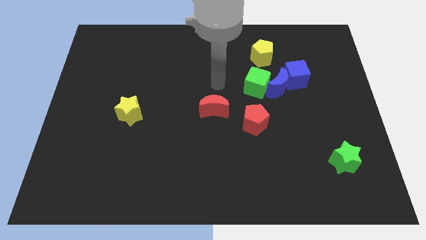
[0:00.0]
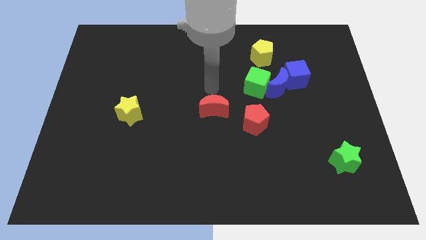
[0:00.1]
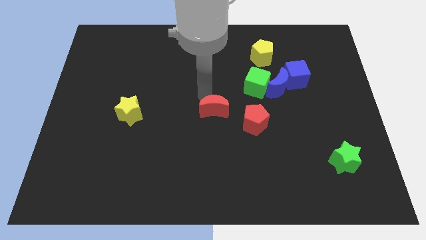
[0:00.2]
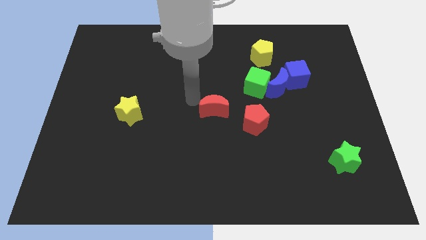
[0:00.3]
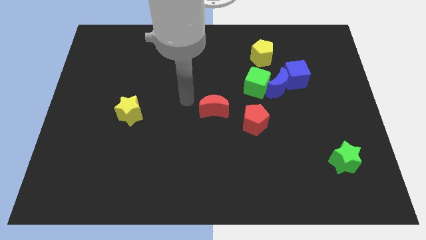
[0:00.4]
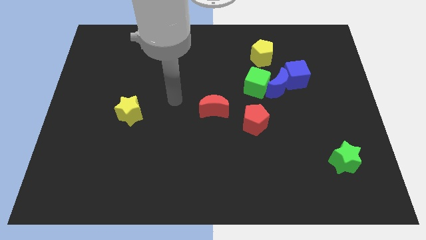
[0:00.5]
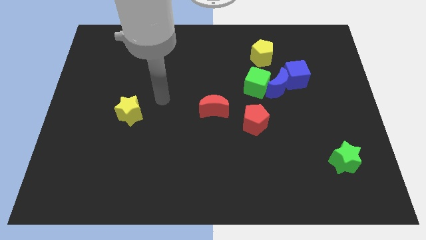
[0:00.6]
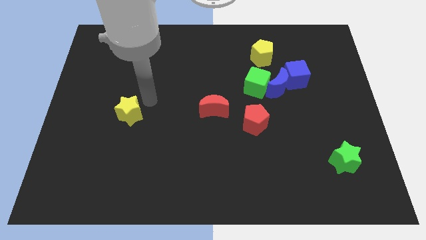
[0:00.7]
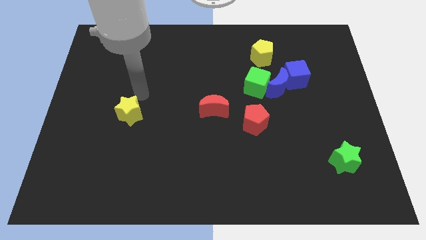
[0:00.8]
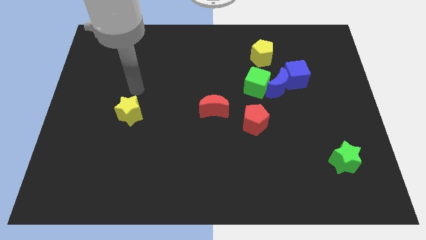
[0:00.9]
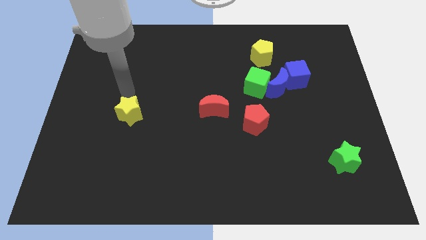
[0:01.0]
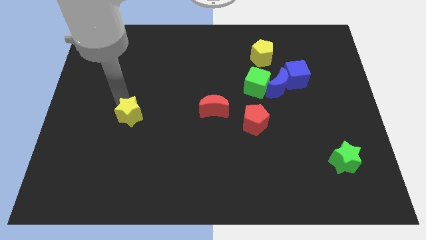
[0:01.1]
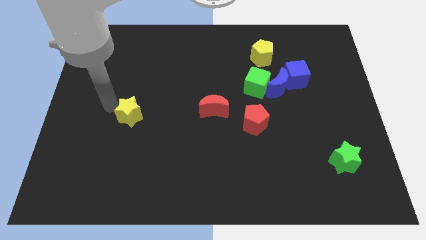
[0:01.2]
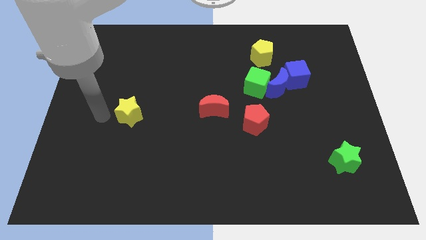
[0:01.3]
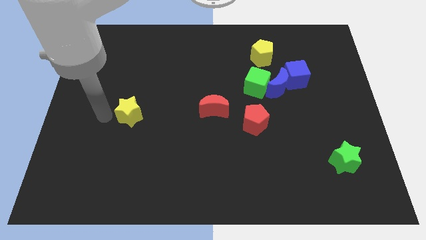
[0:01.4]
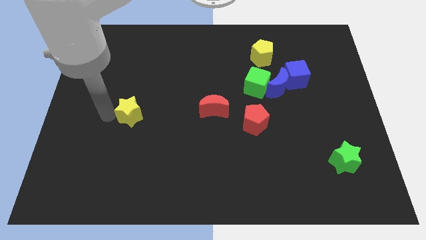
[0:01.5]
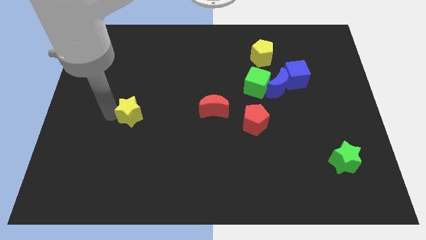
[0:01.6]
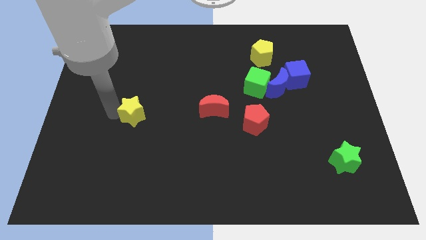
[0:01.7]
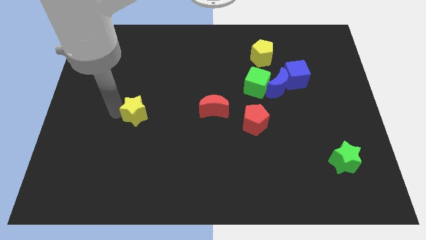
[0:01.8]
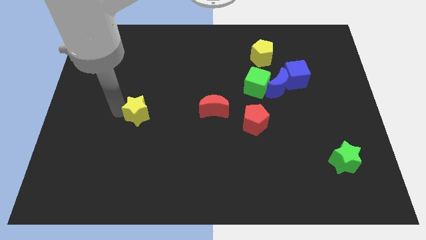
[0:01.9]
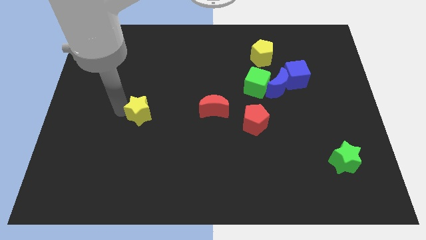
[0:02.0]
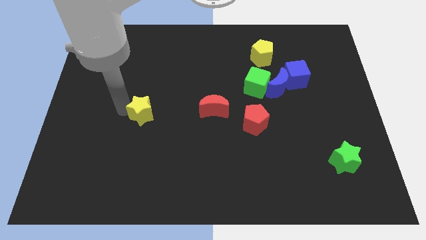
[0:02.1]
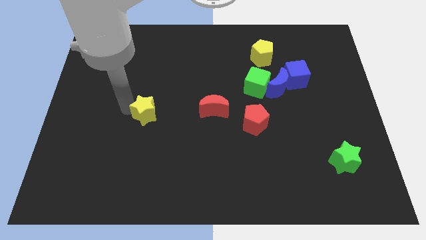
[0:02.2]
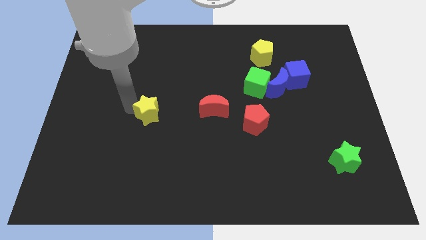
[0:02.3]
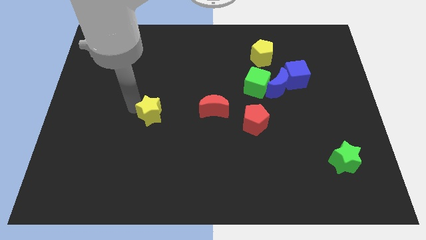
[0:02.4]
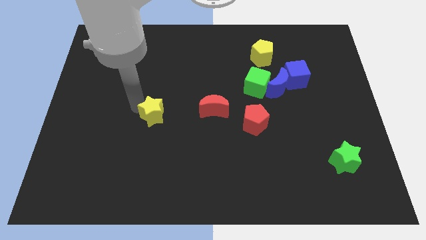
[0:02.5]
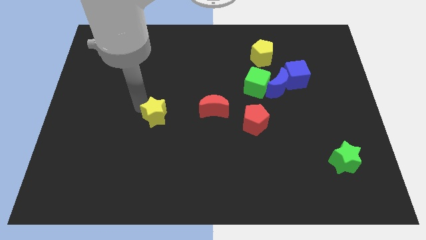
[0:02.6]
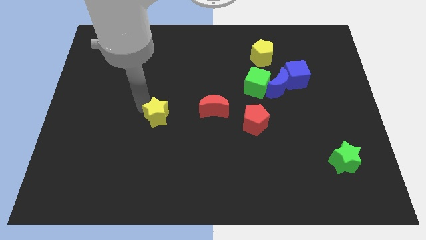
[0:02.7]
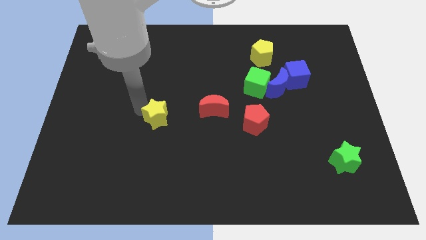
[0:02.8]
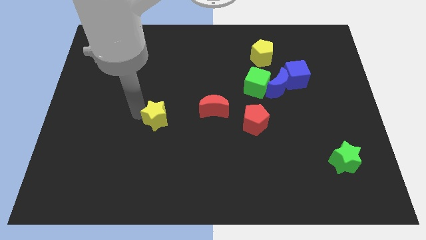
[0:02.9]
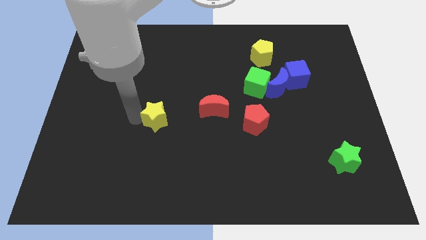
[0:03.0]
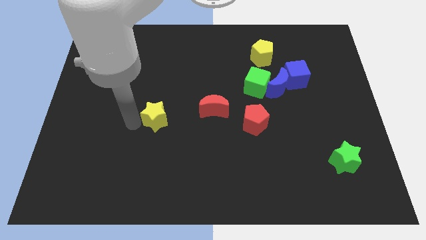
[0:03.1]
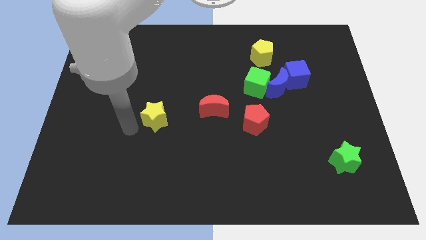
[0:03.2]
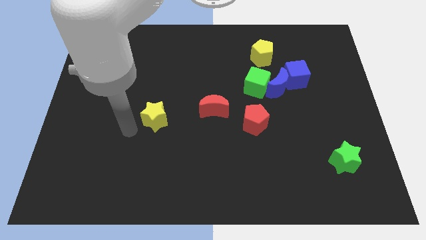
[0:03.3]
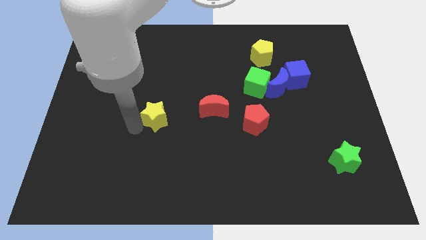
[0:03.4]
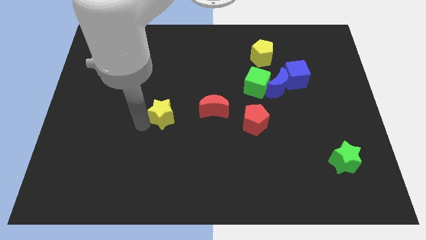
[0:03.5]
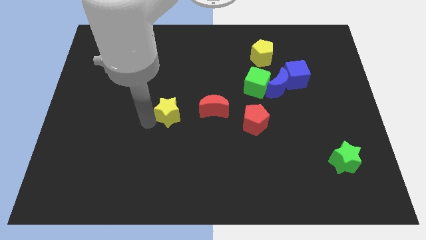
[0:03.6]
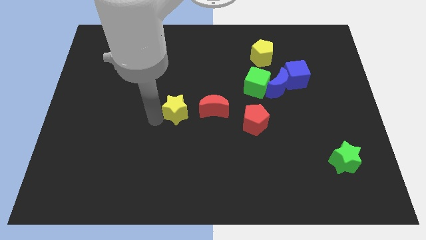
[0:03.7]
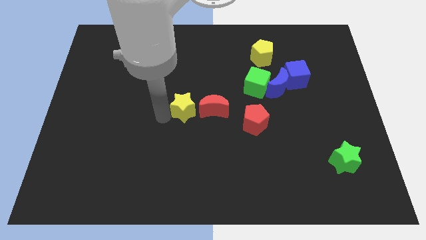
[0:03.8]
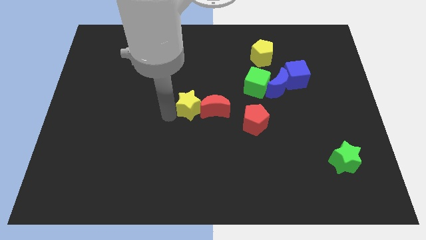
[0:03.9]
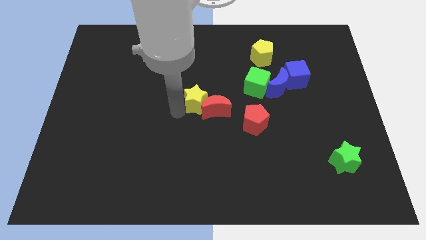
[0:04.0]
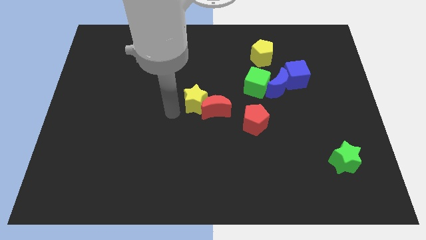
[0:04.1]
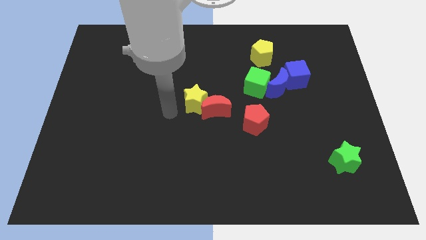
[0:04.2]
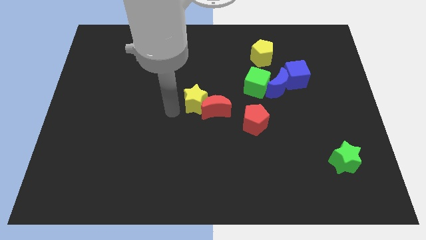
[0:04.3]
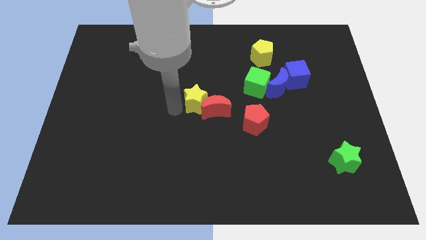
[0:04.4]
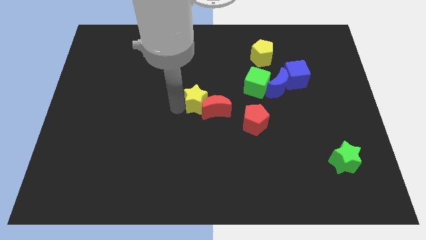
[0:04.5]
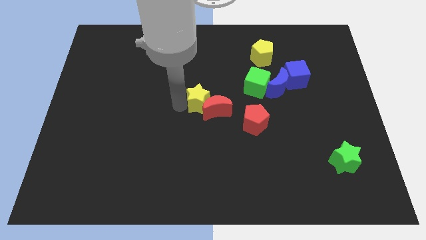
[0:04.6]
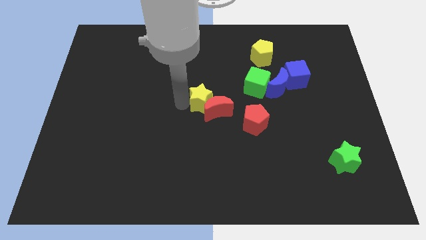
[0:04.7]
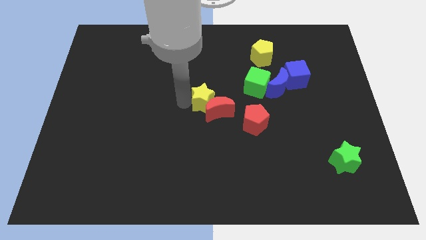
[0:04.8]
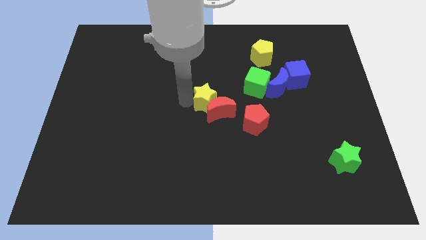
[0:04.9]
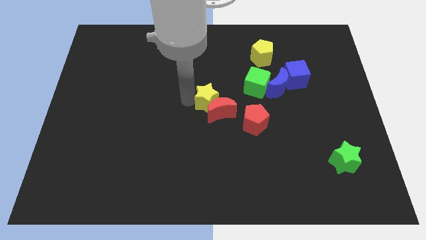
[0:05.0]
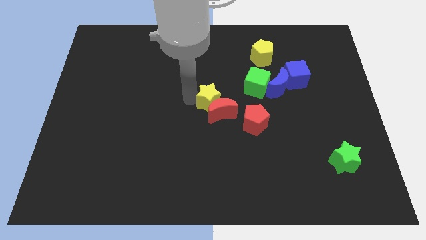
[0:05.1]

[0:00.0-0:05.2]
put the yellow star to the top left side of the red pentagon

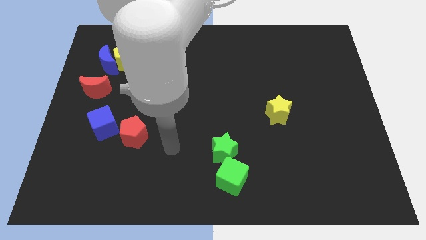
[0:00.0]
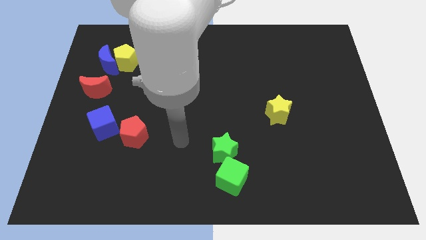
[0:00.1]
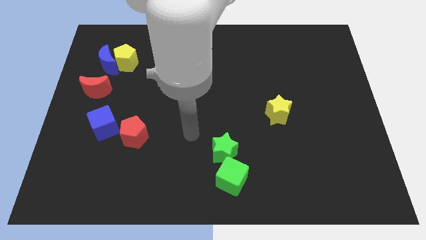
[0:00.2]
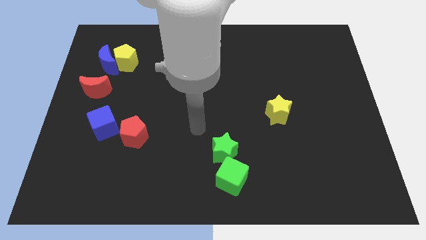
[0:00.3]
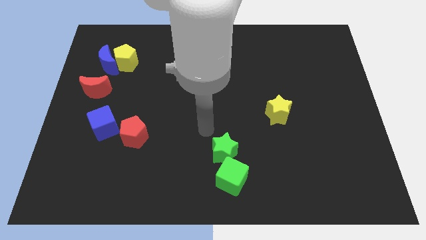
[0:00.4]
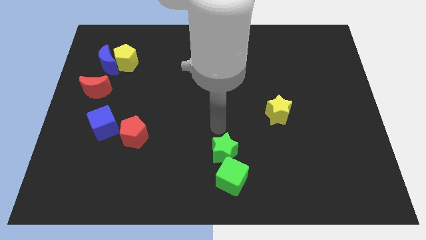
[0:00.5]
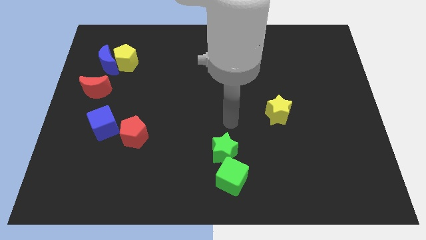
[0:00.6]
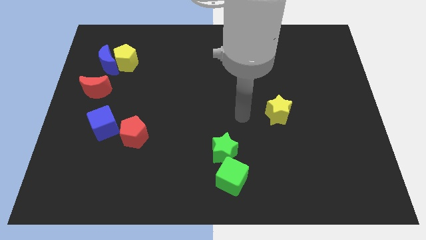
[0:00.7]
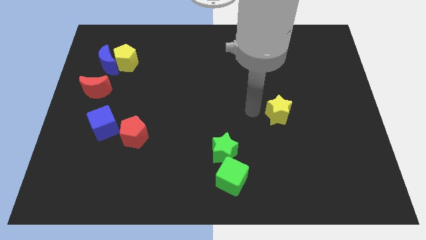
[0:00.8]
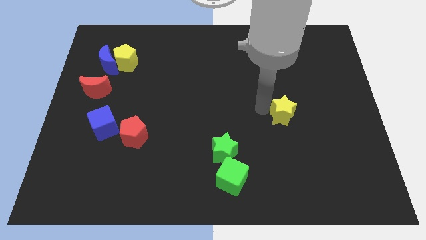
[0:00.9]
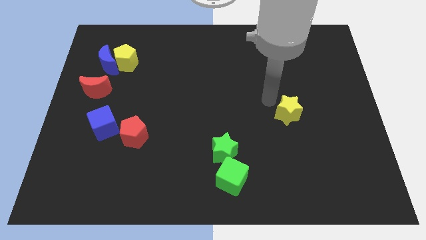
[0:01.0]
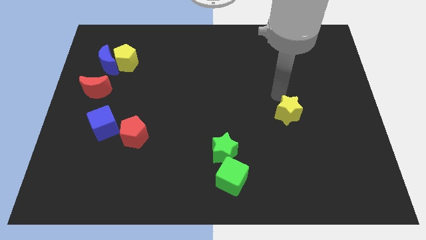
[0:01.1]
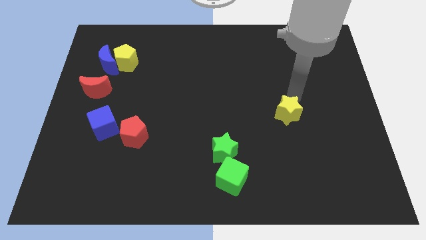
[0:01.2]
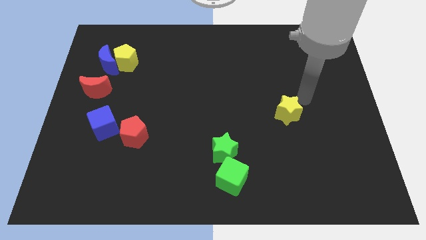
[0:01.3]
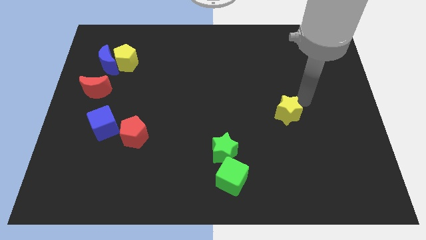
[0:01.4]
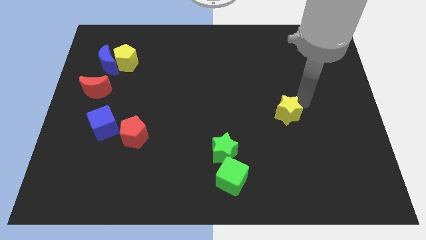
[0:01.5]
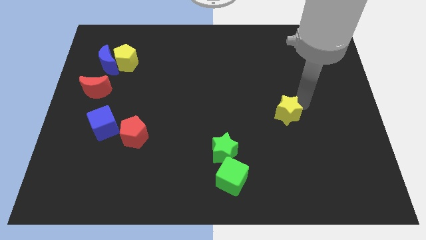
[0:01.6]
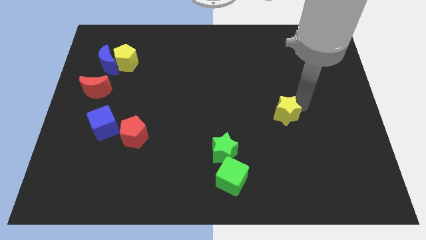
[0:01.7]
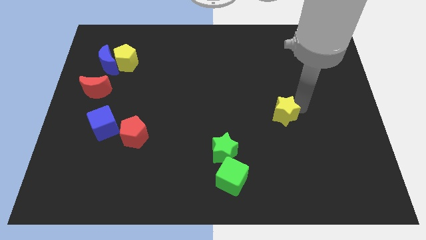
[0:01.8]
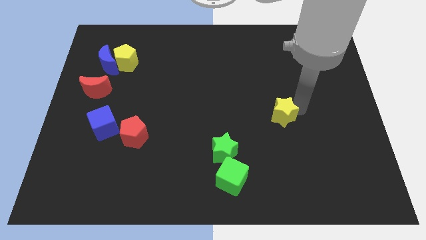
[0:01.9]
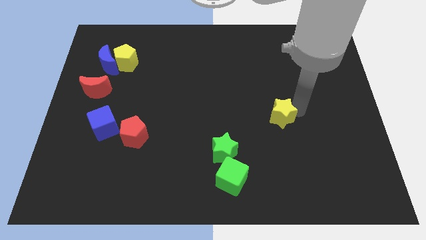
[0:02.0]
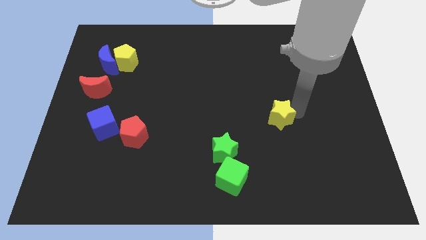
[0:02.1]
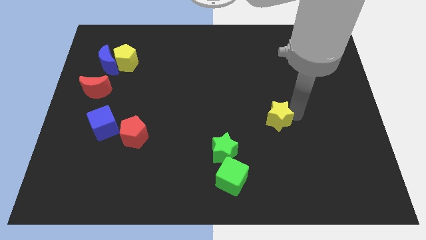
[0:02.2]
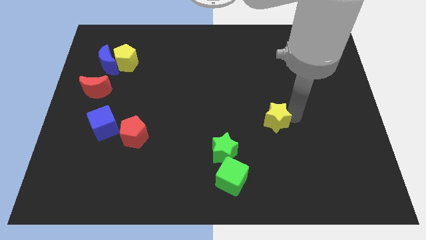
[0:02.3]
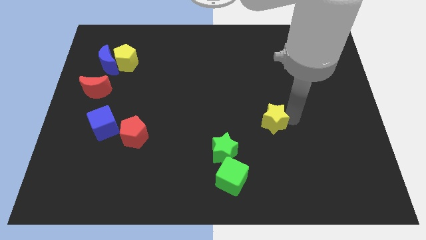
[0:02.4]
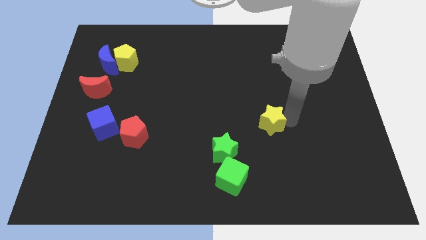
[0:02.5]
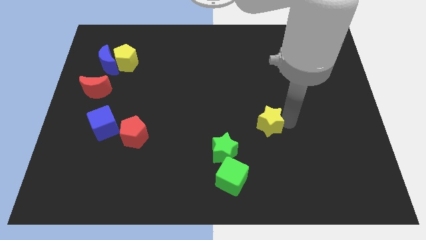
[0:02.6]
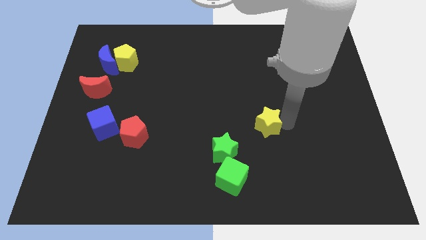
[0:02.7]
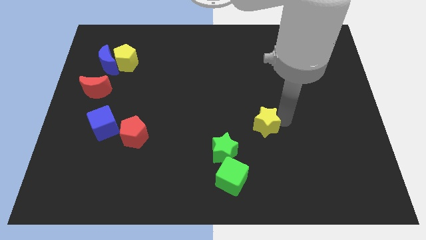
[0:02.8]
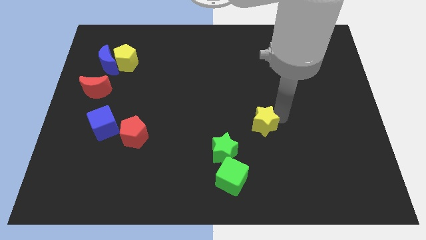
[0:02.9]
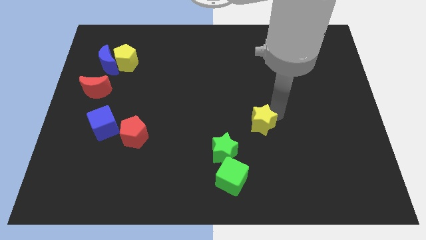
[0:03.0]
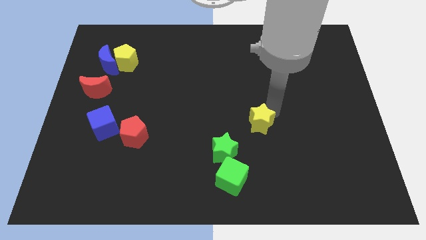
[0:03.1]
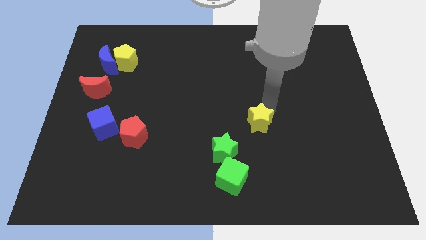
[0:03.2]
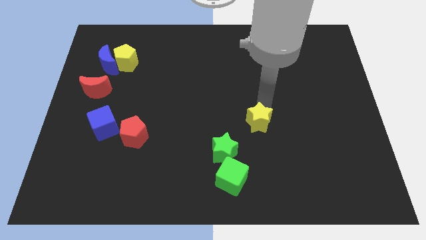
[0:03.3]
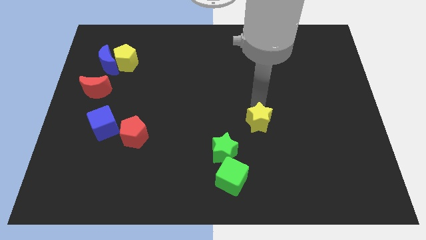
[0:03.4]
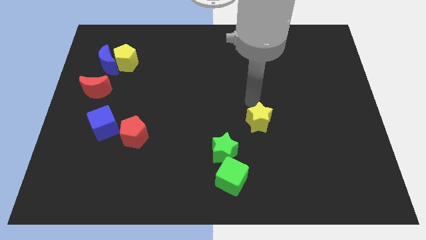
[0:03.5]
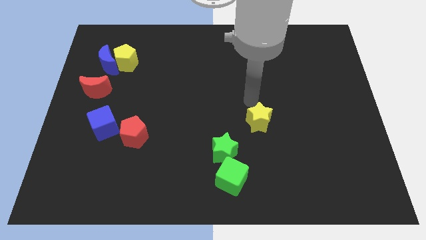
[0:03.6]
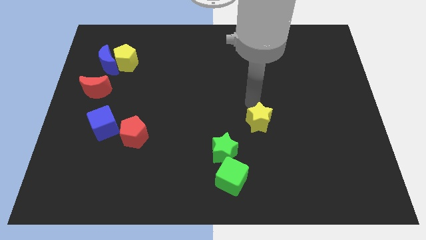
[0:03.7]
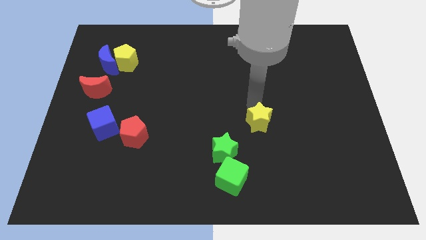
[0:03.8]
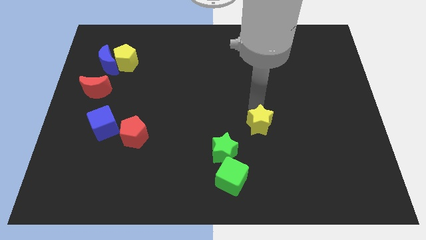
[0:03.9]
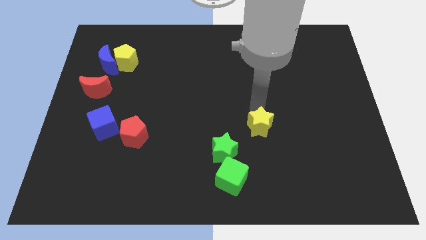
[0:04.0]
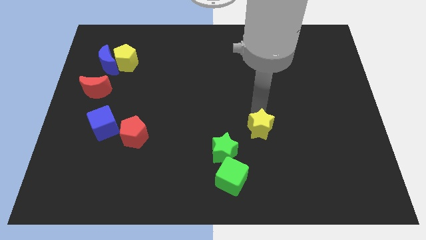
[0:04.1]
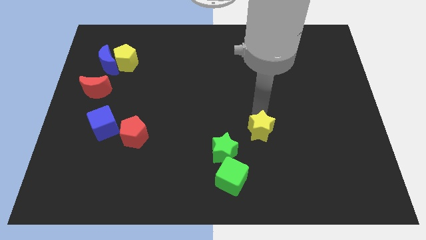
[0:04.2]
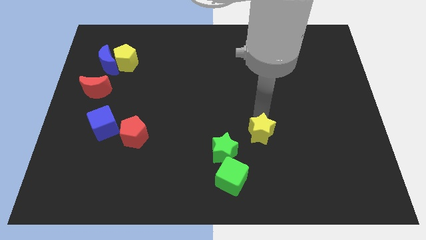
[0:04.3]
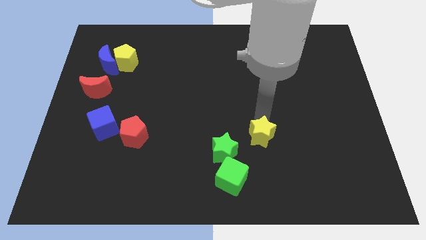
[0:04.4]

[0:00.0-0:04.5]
move the yellow star to the top right side of the green cube
